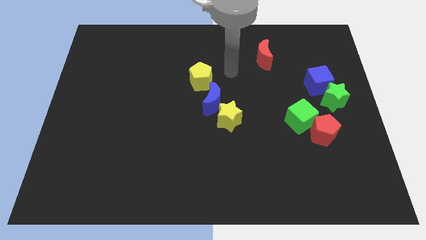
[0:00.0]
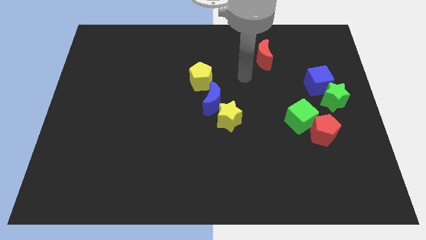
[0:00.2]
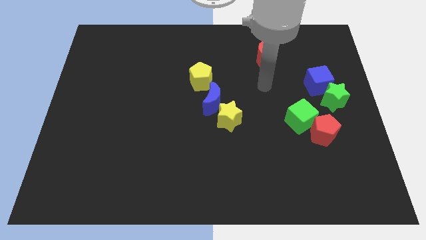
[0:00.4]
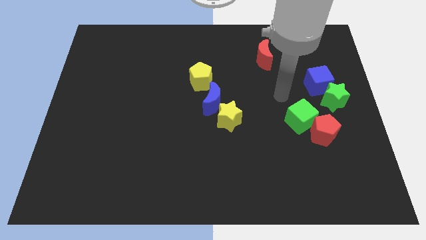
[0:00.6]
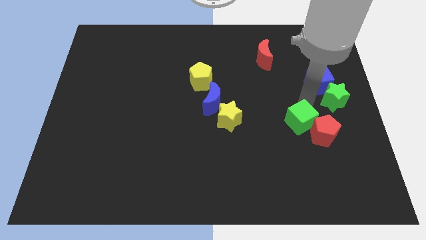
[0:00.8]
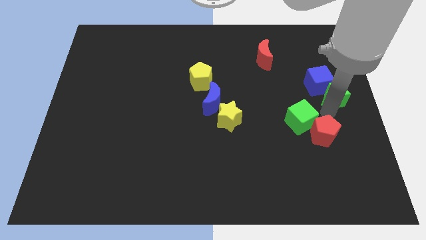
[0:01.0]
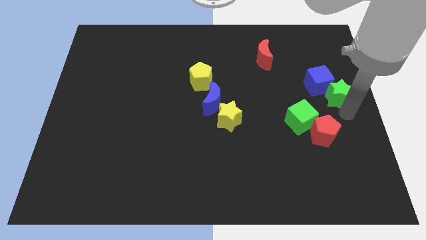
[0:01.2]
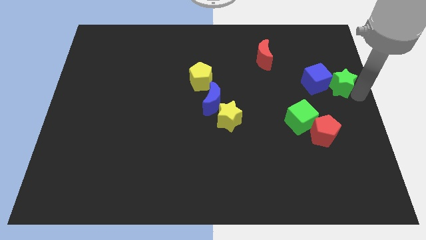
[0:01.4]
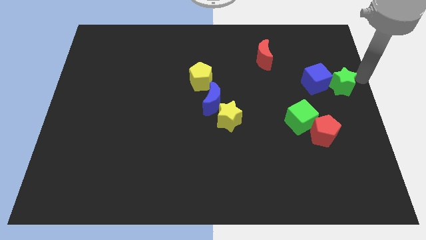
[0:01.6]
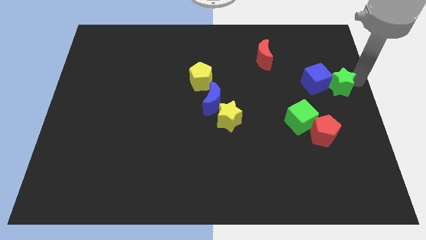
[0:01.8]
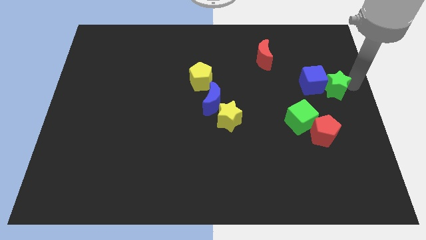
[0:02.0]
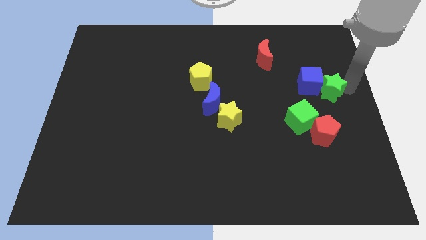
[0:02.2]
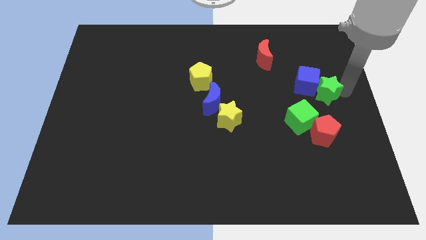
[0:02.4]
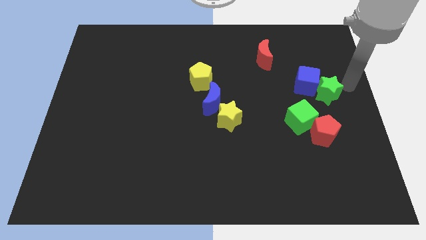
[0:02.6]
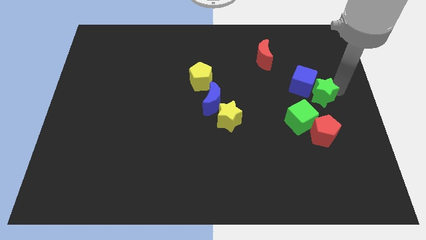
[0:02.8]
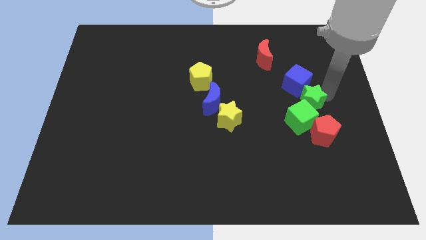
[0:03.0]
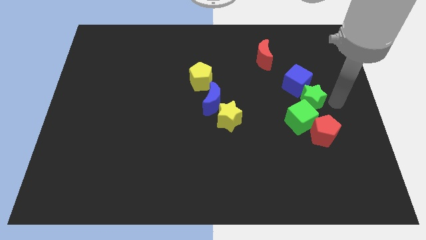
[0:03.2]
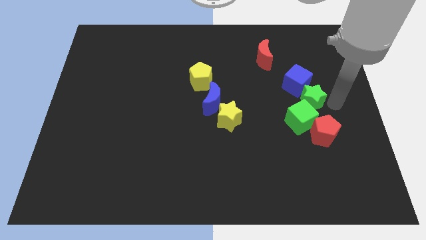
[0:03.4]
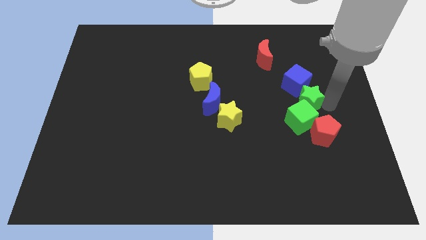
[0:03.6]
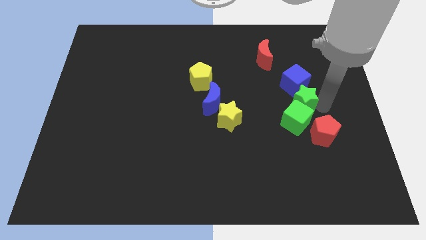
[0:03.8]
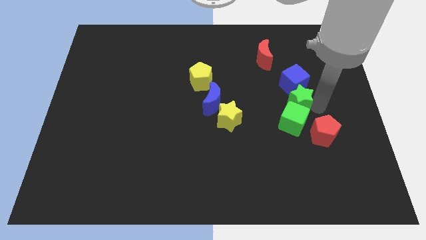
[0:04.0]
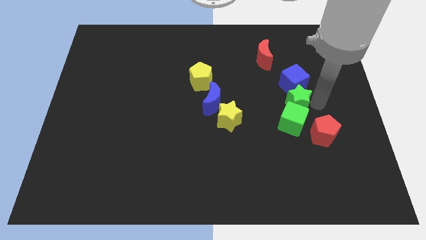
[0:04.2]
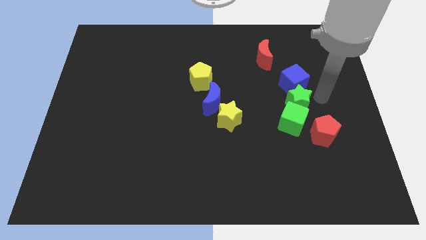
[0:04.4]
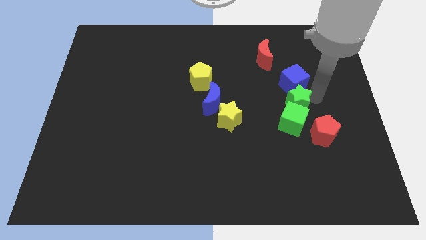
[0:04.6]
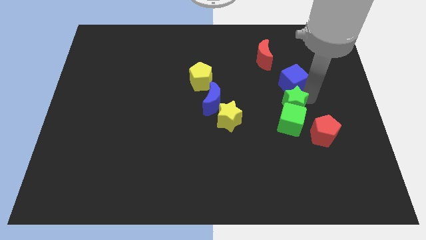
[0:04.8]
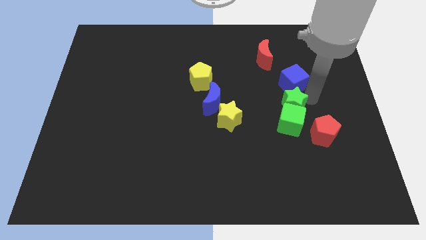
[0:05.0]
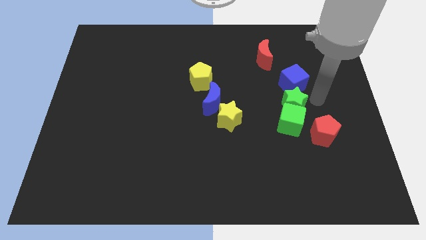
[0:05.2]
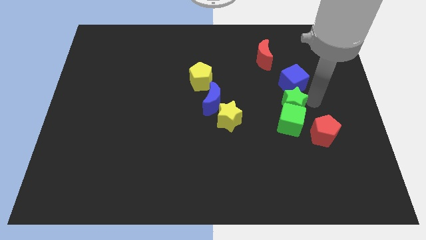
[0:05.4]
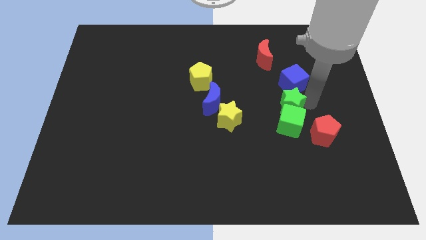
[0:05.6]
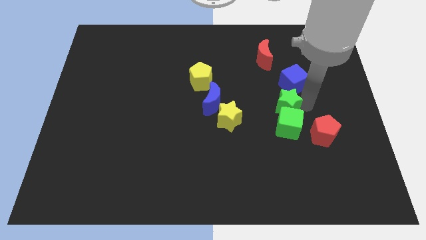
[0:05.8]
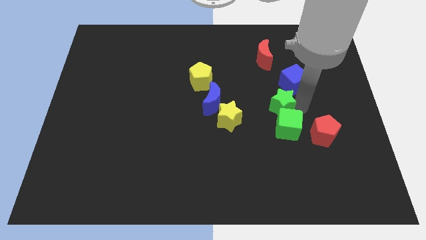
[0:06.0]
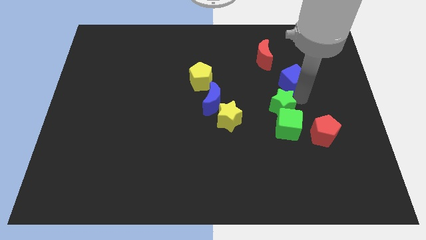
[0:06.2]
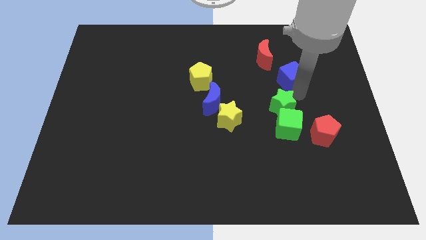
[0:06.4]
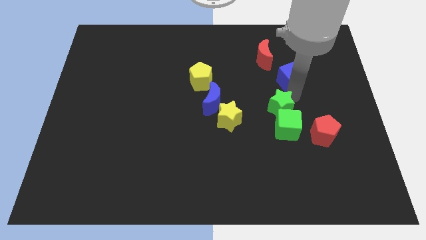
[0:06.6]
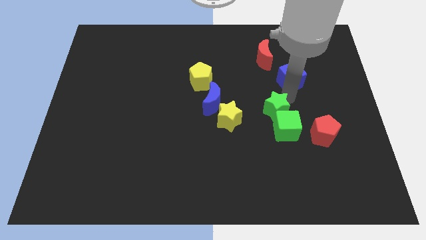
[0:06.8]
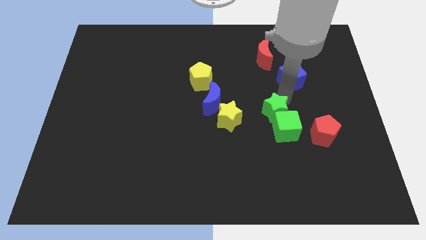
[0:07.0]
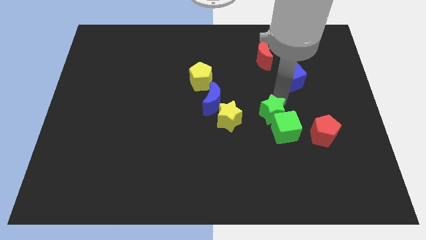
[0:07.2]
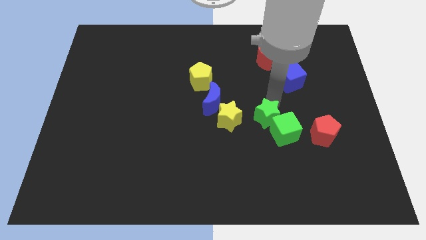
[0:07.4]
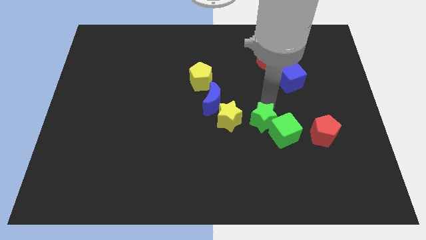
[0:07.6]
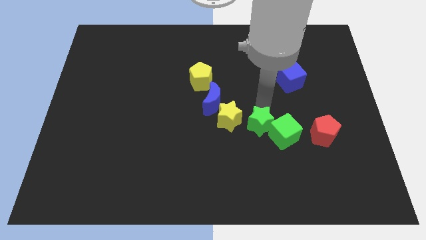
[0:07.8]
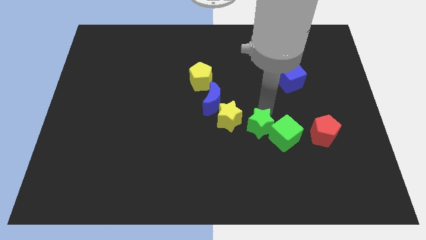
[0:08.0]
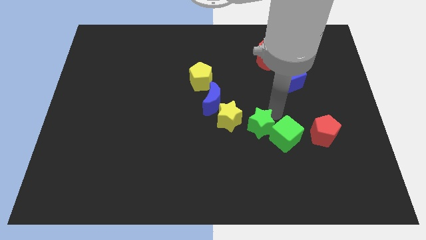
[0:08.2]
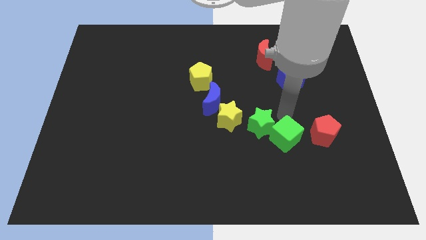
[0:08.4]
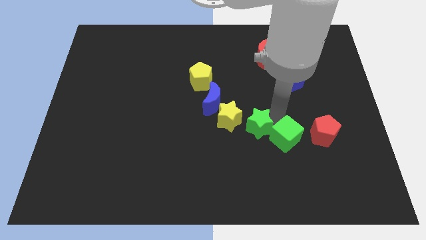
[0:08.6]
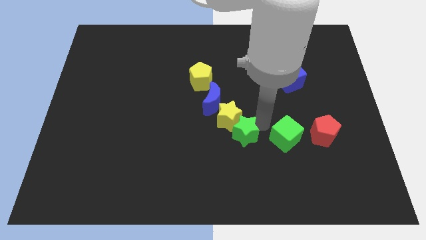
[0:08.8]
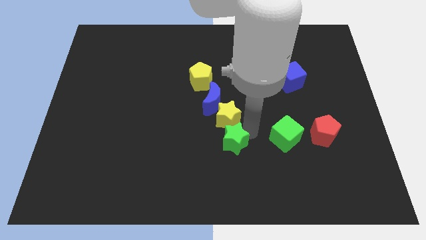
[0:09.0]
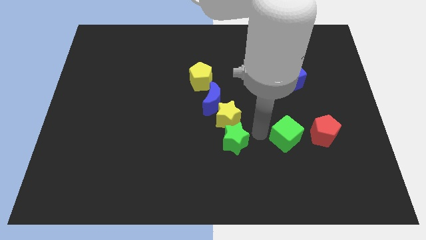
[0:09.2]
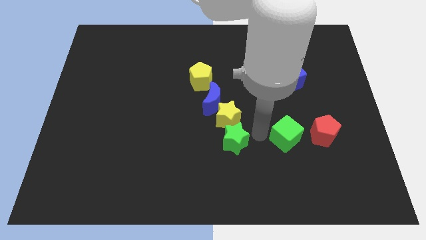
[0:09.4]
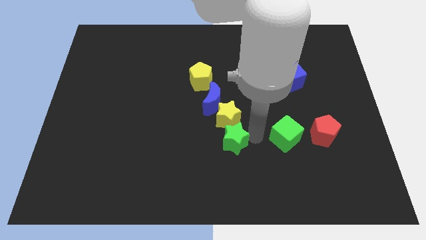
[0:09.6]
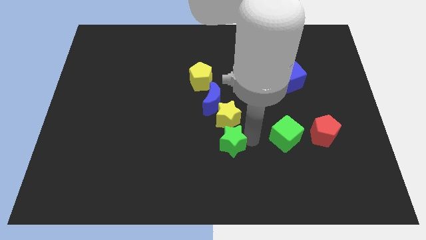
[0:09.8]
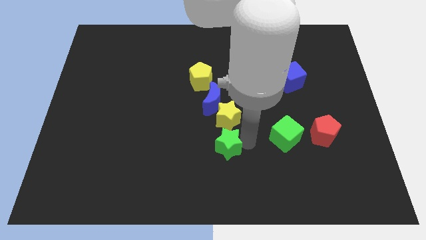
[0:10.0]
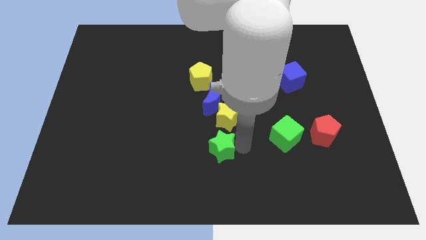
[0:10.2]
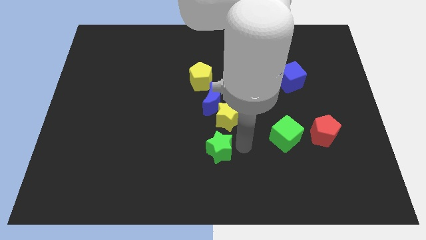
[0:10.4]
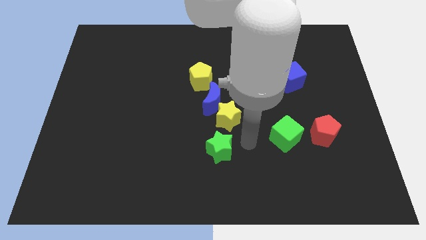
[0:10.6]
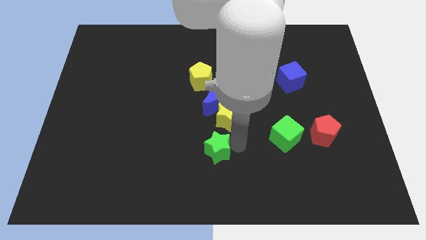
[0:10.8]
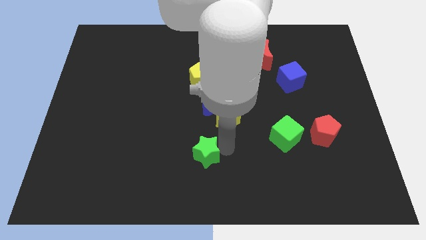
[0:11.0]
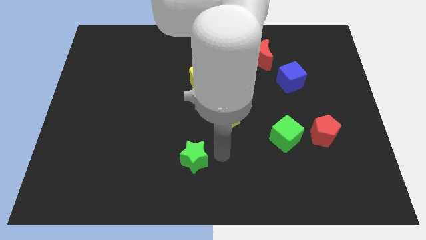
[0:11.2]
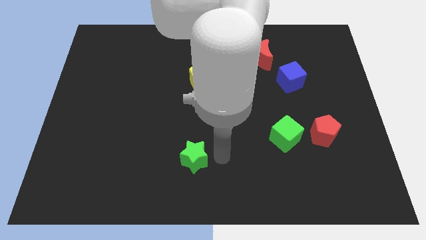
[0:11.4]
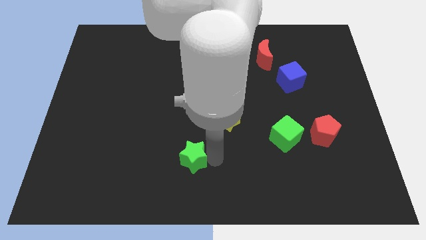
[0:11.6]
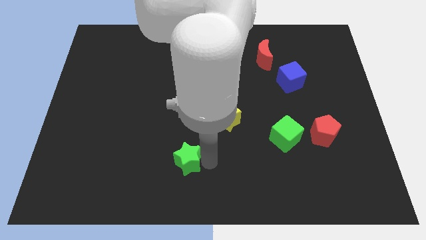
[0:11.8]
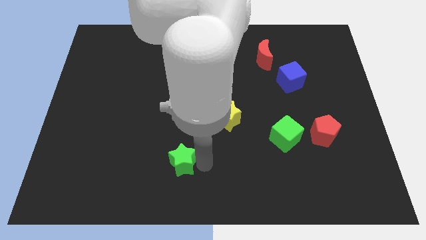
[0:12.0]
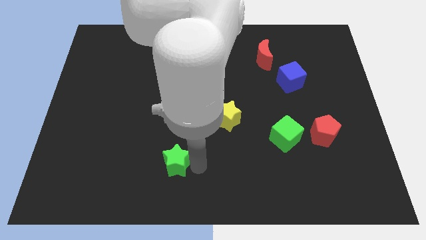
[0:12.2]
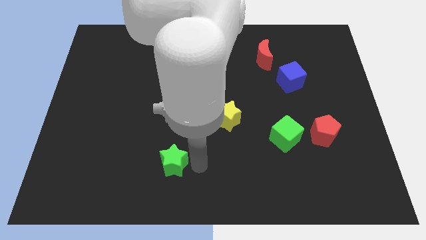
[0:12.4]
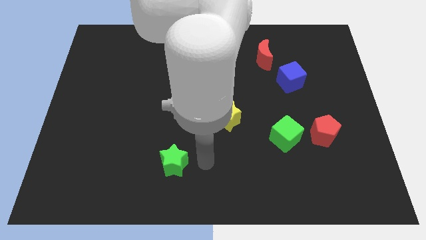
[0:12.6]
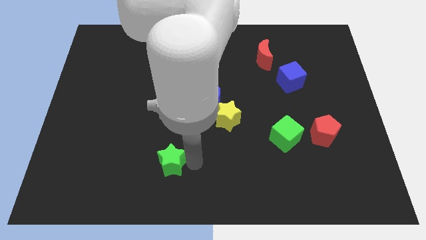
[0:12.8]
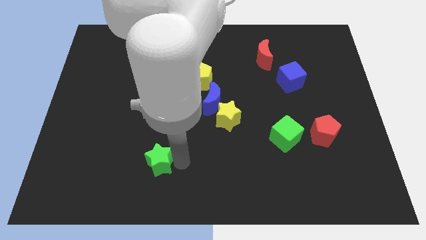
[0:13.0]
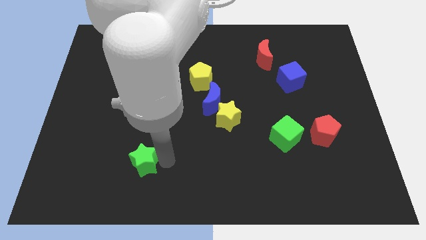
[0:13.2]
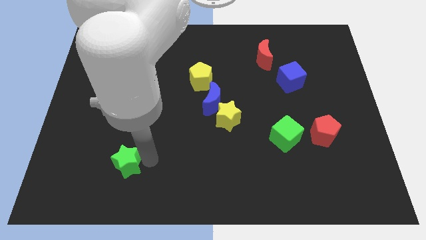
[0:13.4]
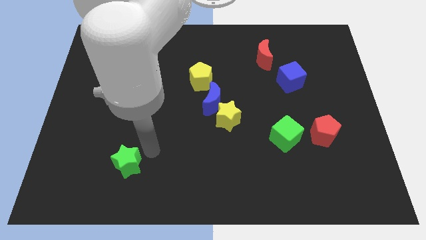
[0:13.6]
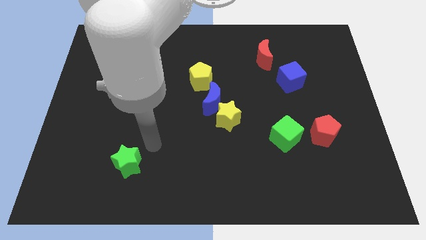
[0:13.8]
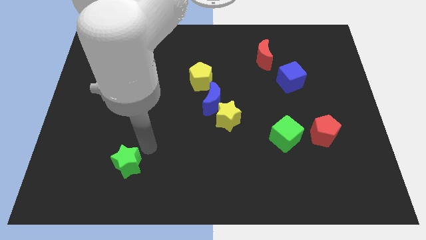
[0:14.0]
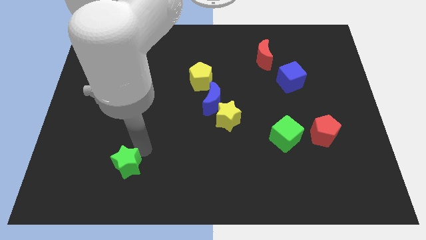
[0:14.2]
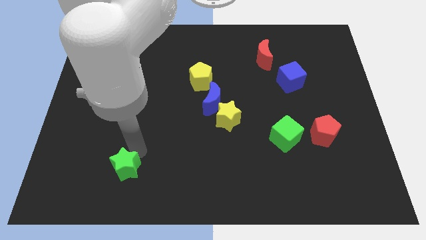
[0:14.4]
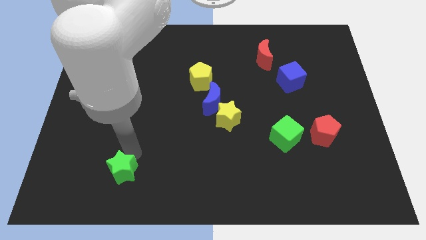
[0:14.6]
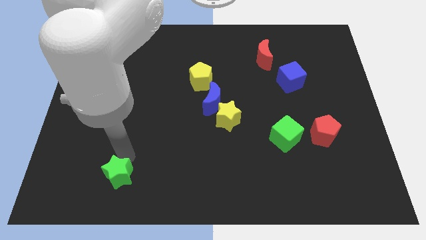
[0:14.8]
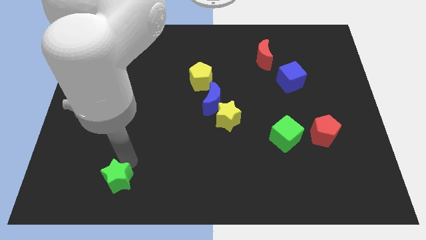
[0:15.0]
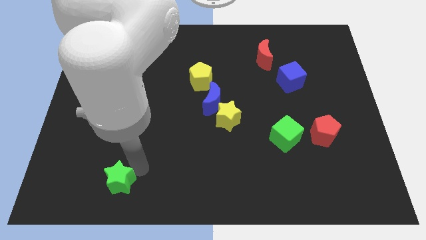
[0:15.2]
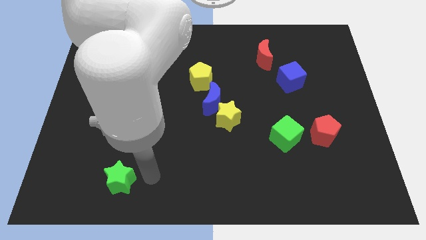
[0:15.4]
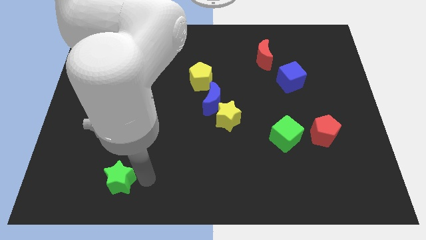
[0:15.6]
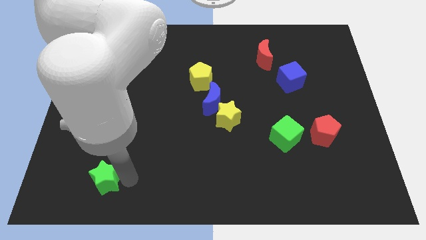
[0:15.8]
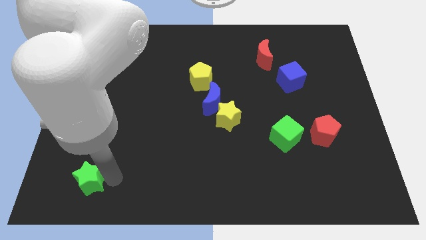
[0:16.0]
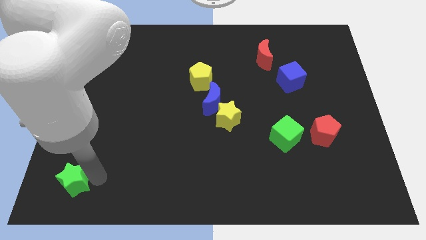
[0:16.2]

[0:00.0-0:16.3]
put the green star to the lower left corner
